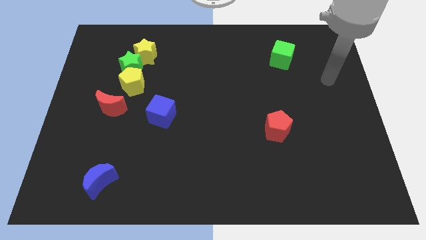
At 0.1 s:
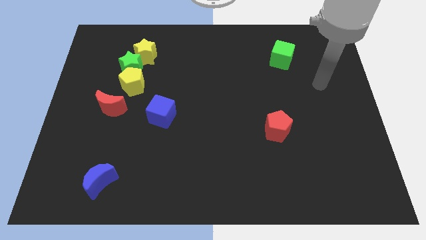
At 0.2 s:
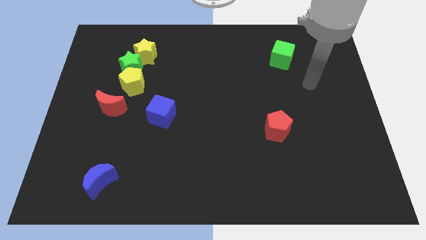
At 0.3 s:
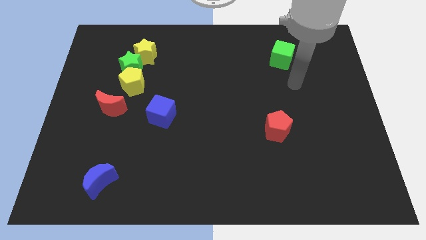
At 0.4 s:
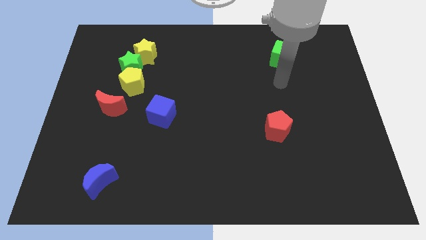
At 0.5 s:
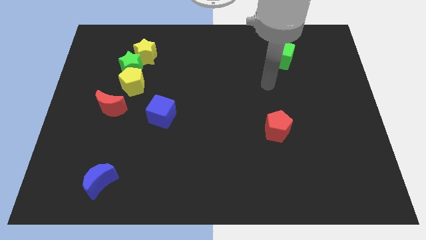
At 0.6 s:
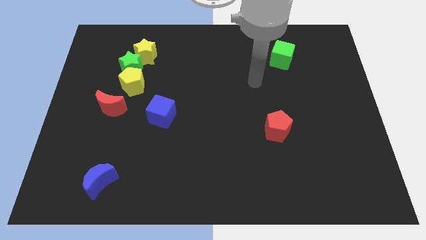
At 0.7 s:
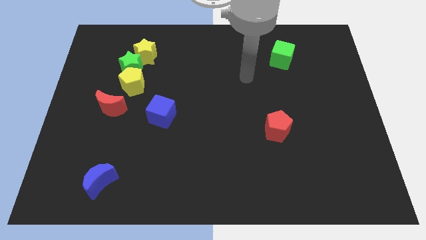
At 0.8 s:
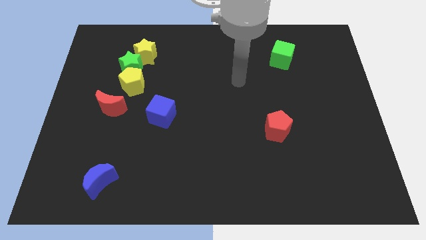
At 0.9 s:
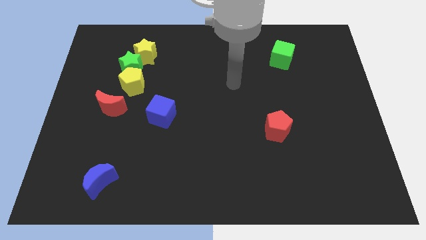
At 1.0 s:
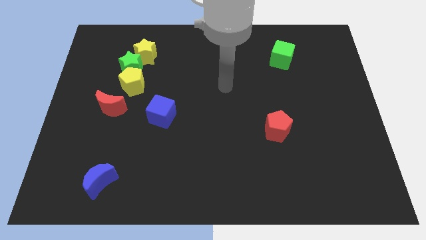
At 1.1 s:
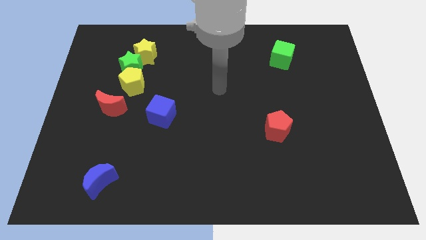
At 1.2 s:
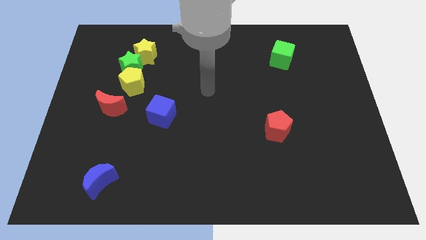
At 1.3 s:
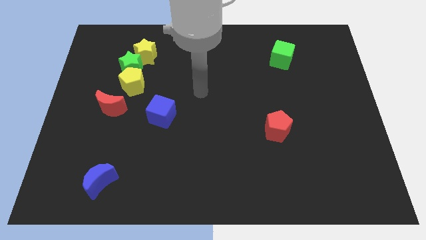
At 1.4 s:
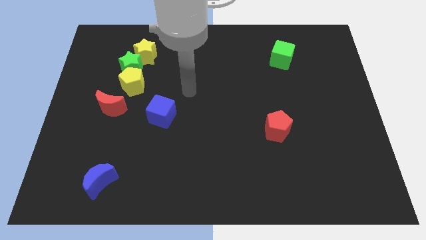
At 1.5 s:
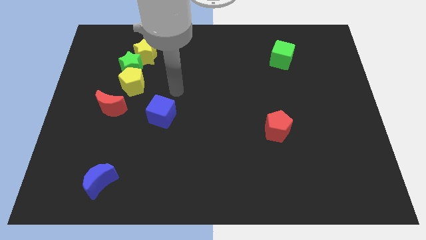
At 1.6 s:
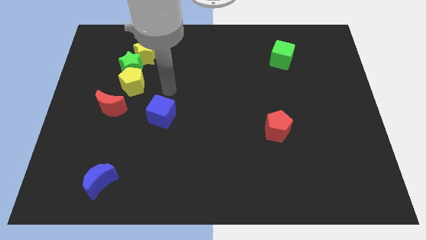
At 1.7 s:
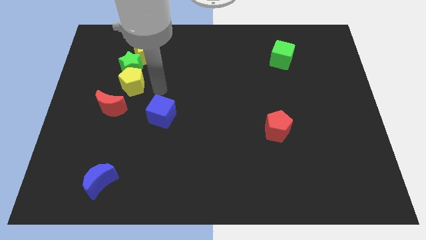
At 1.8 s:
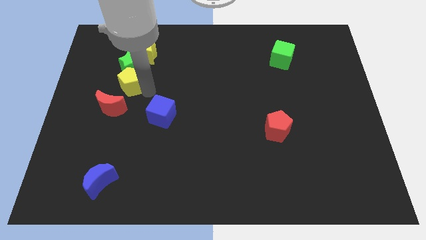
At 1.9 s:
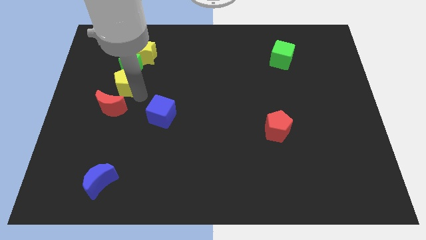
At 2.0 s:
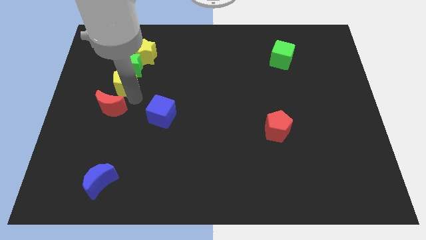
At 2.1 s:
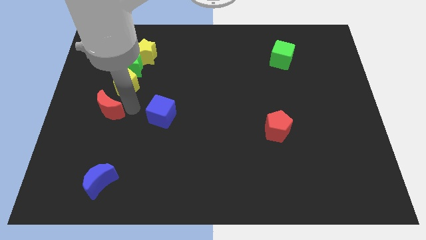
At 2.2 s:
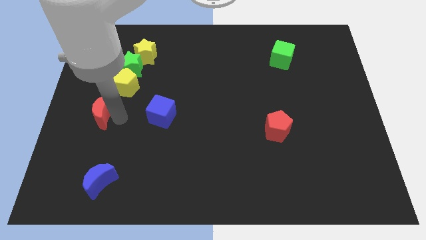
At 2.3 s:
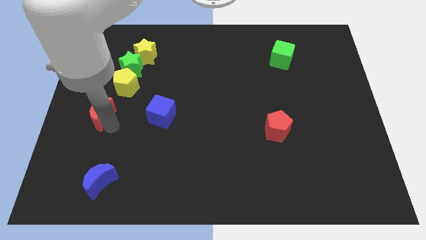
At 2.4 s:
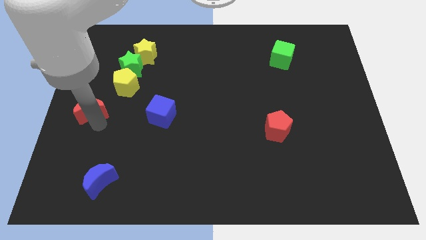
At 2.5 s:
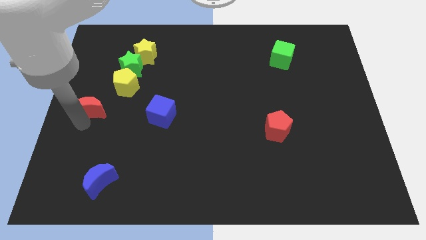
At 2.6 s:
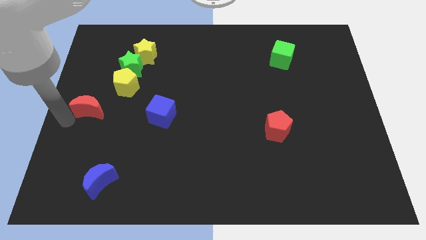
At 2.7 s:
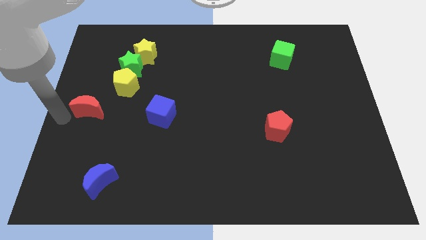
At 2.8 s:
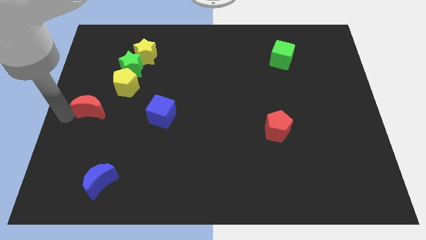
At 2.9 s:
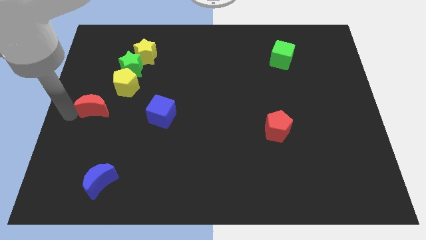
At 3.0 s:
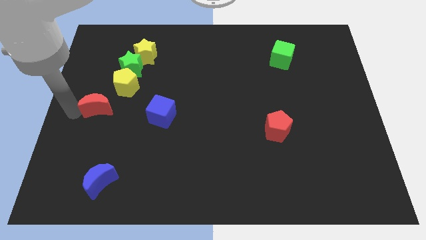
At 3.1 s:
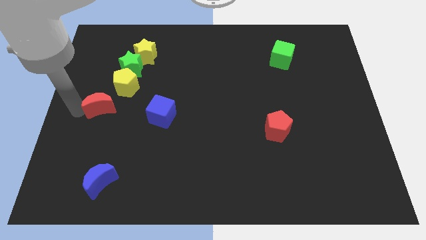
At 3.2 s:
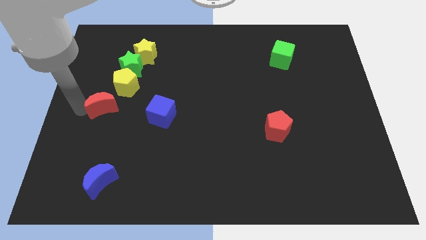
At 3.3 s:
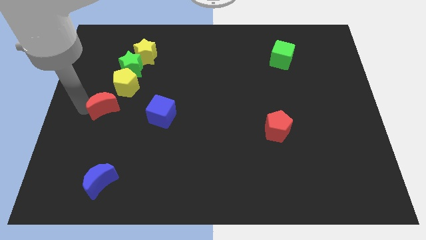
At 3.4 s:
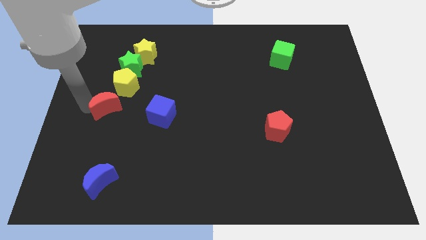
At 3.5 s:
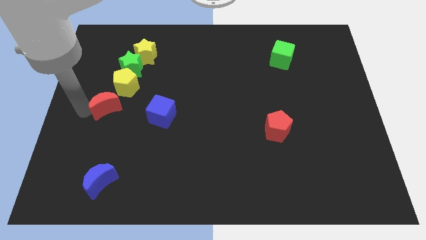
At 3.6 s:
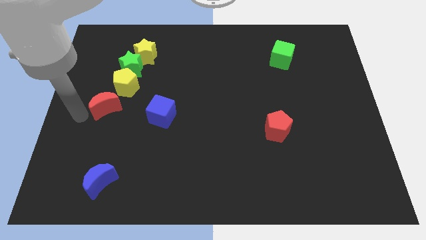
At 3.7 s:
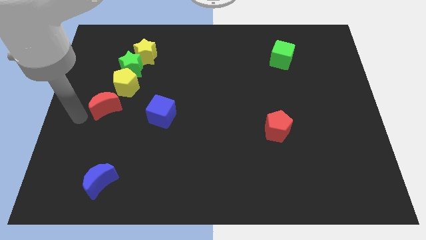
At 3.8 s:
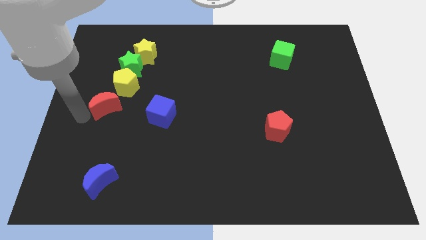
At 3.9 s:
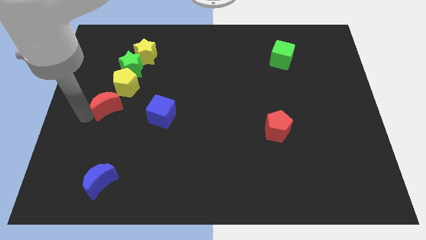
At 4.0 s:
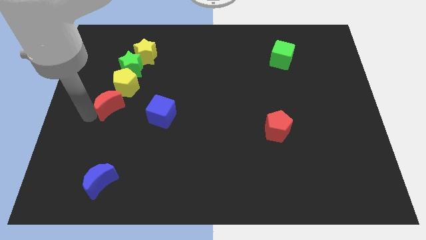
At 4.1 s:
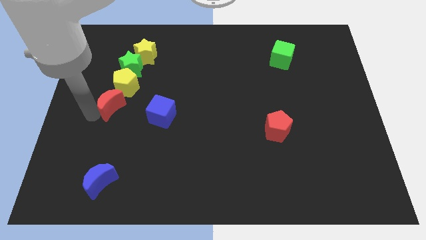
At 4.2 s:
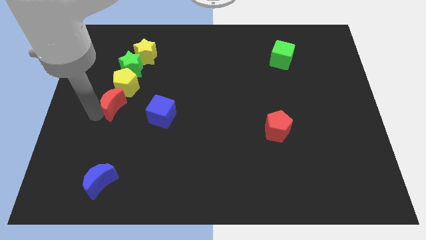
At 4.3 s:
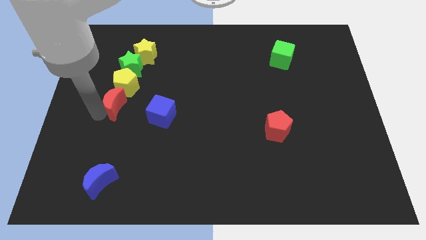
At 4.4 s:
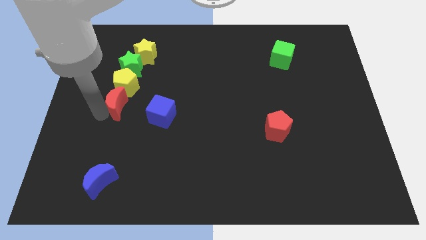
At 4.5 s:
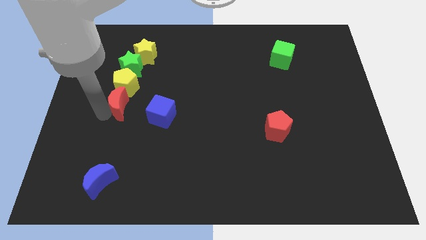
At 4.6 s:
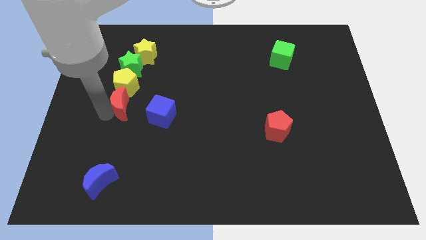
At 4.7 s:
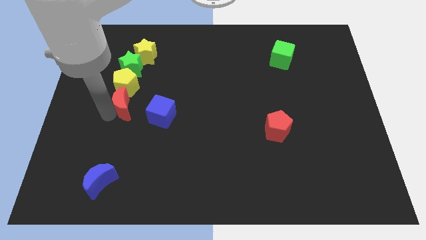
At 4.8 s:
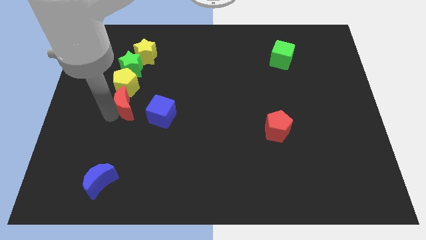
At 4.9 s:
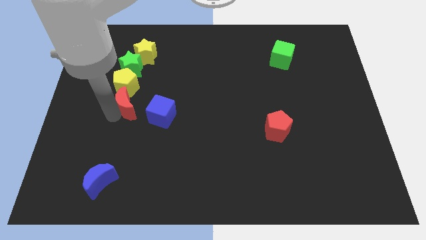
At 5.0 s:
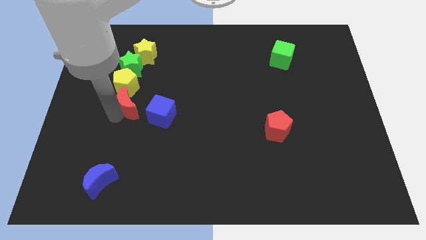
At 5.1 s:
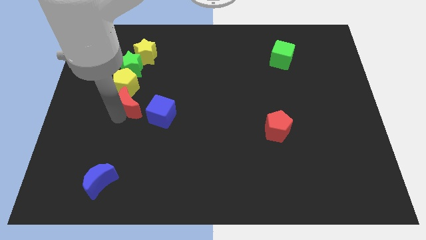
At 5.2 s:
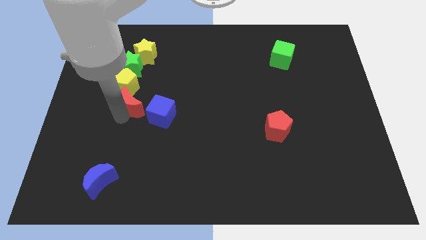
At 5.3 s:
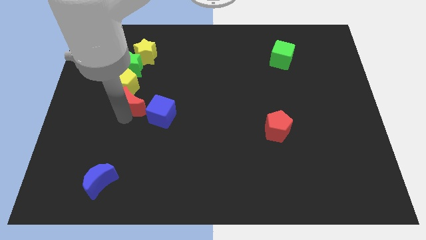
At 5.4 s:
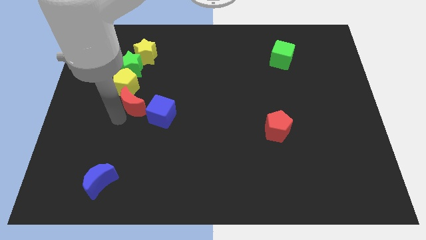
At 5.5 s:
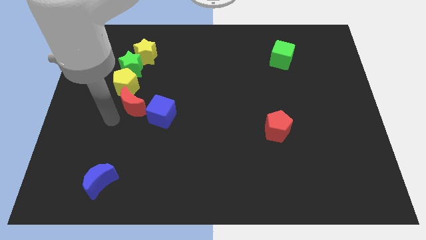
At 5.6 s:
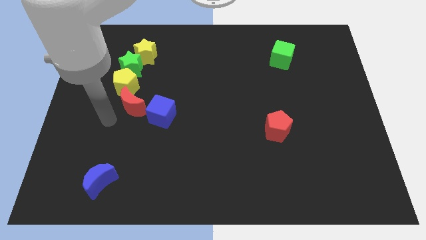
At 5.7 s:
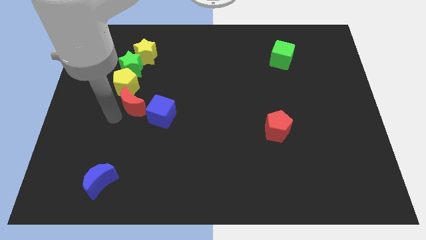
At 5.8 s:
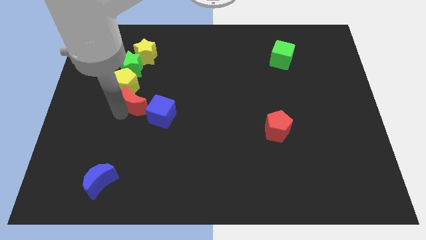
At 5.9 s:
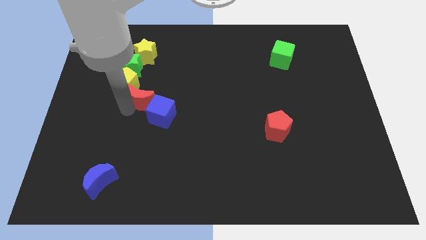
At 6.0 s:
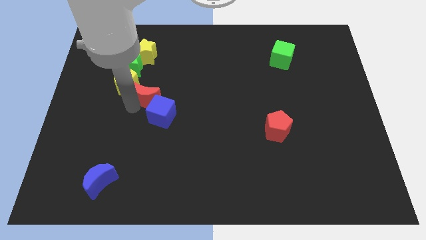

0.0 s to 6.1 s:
move the red moon to the bottom right side of the green star

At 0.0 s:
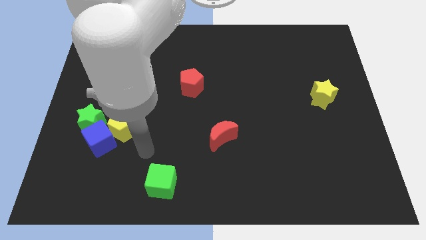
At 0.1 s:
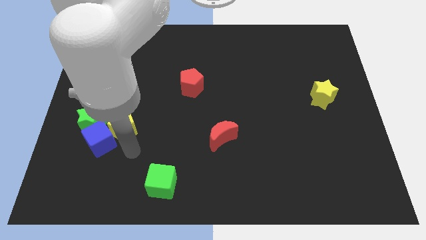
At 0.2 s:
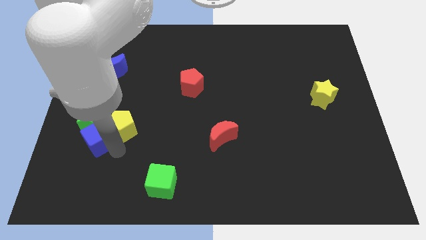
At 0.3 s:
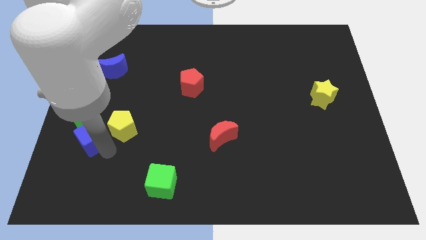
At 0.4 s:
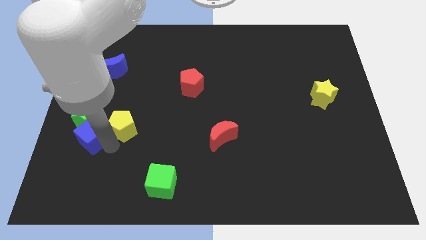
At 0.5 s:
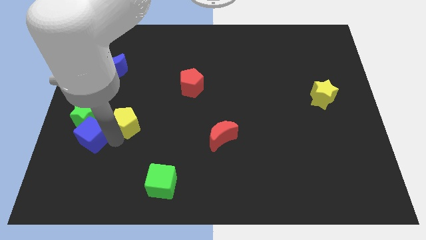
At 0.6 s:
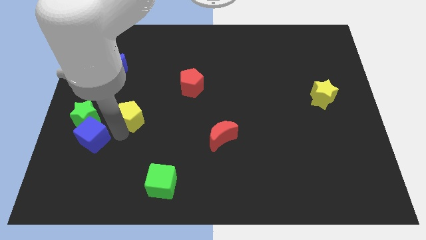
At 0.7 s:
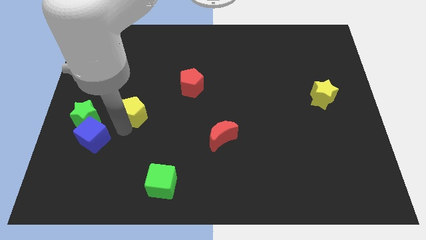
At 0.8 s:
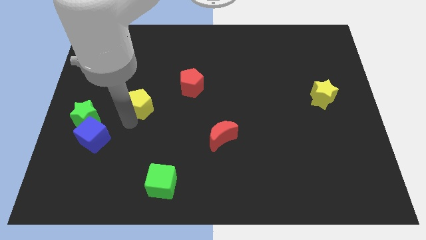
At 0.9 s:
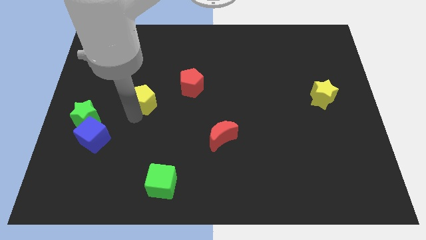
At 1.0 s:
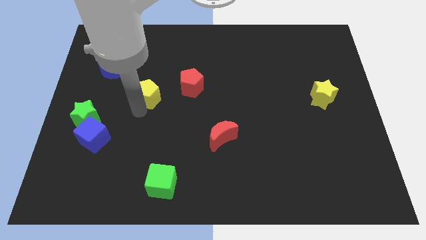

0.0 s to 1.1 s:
push the yellow pentagon to the left of the red pentagon
